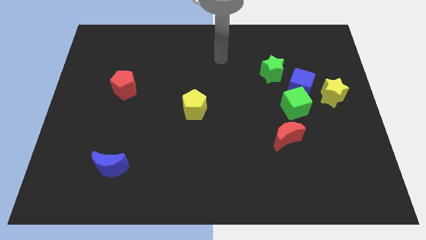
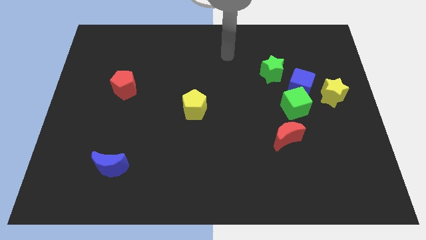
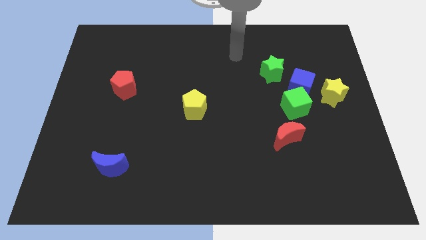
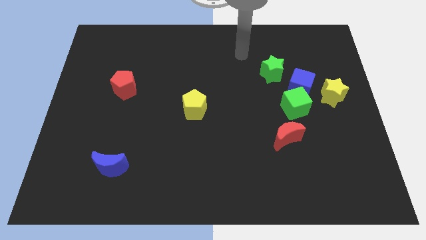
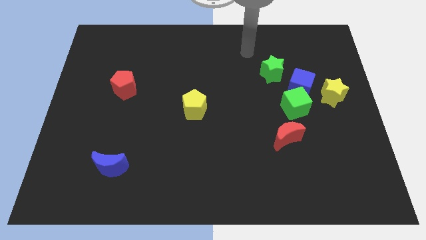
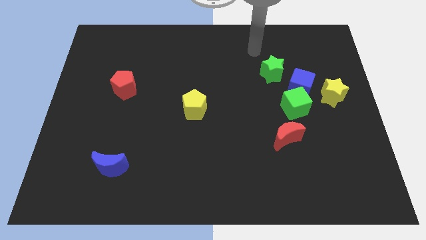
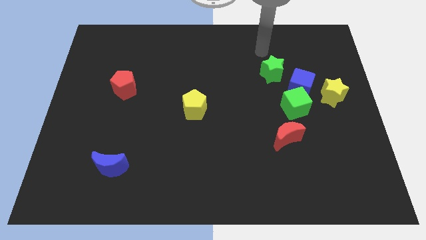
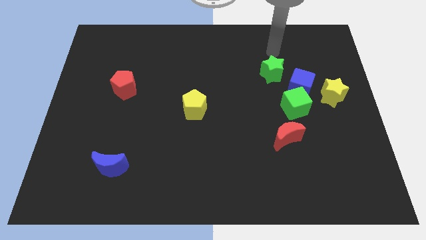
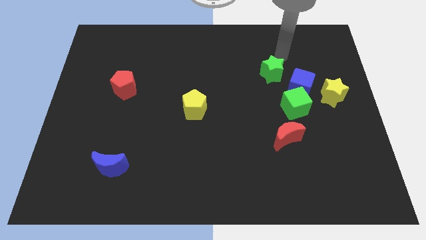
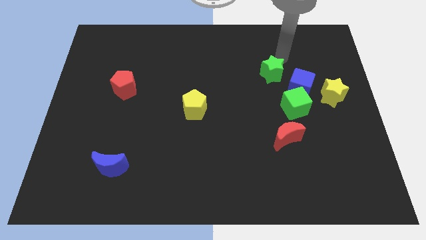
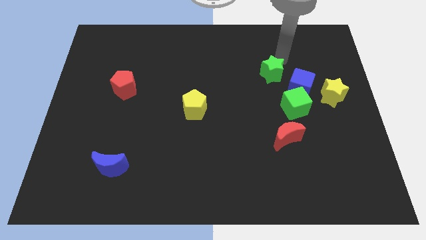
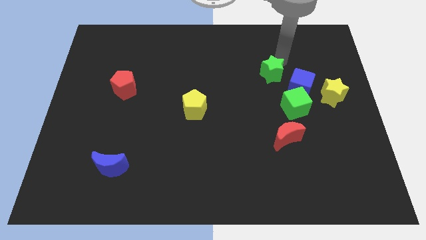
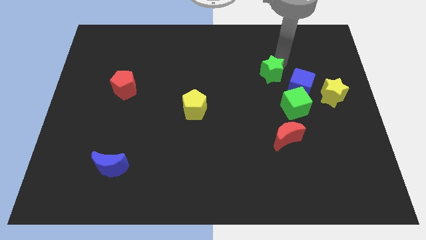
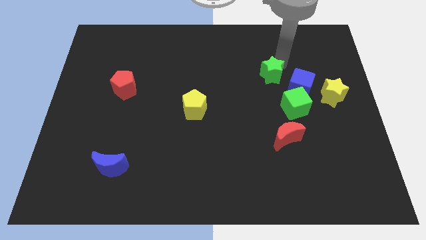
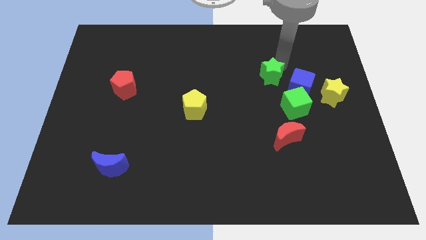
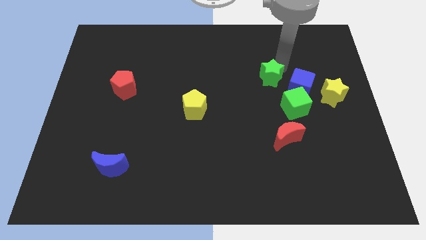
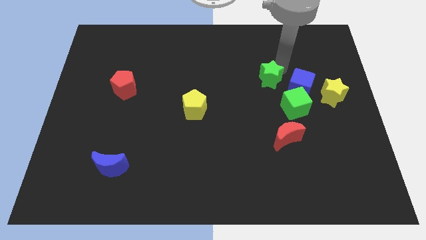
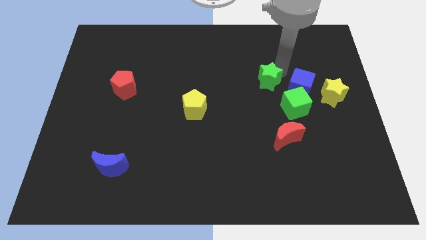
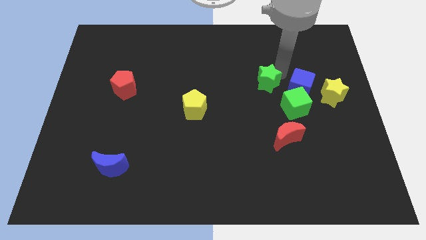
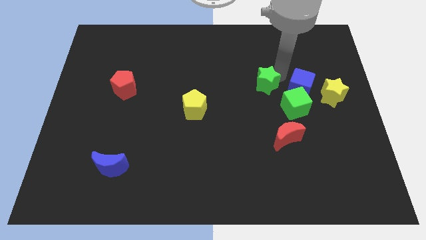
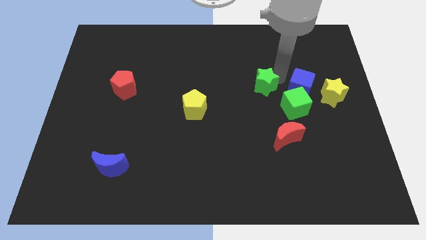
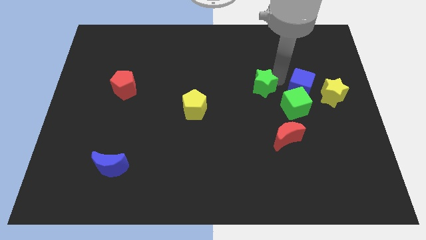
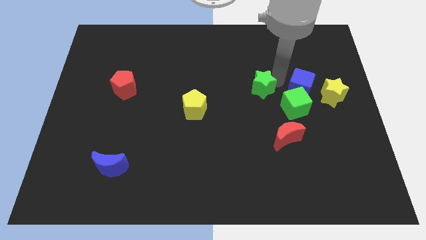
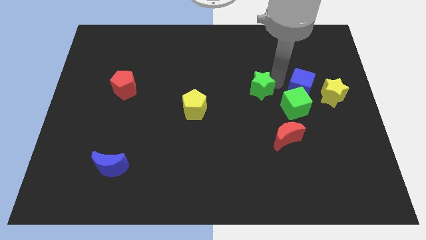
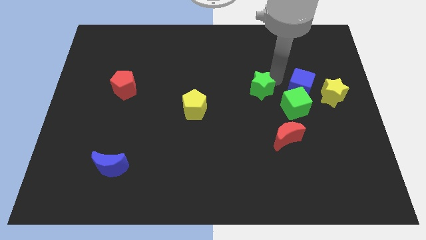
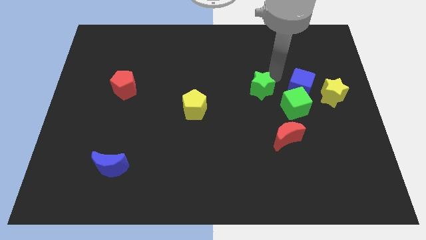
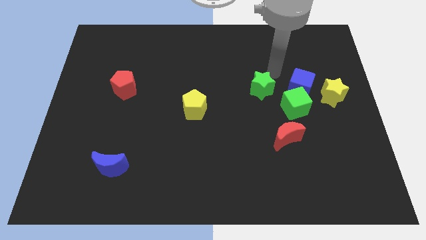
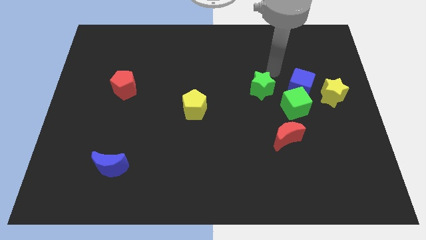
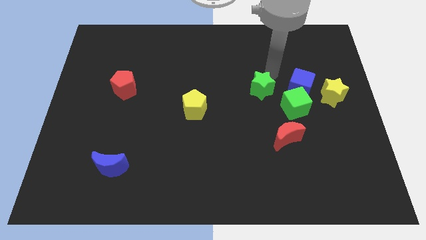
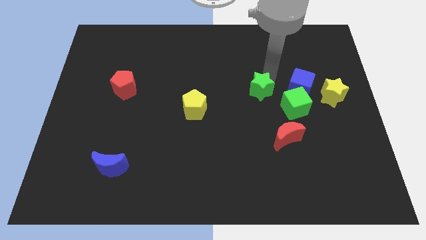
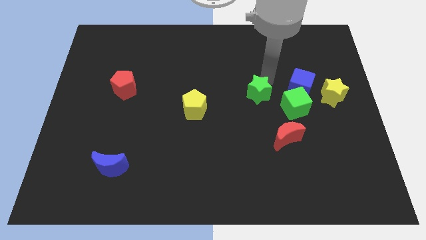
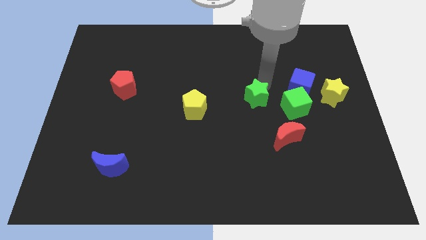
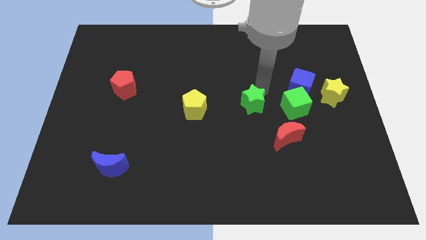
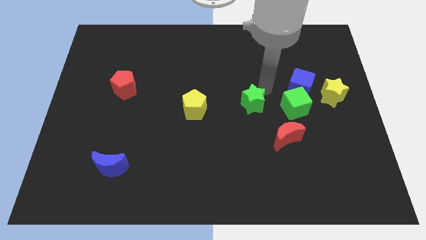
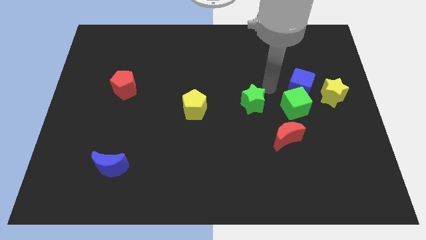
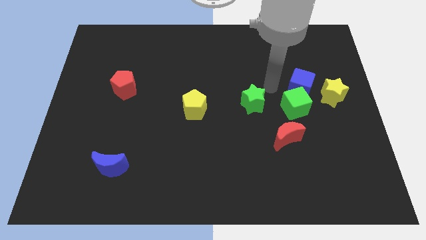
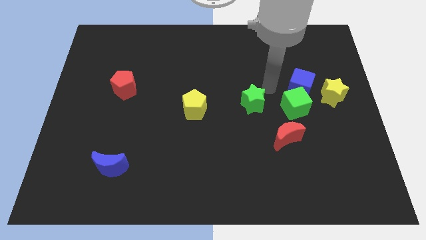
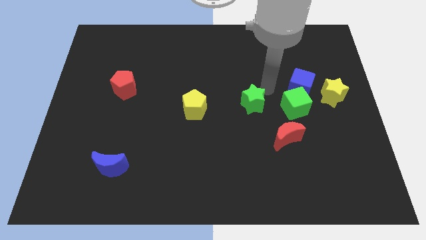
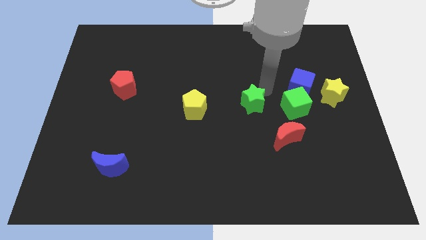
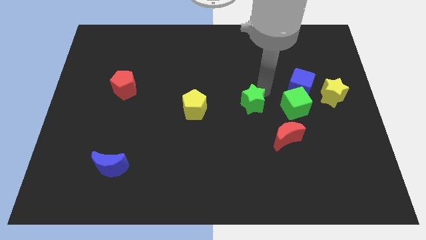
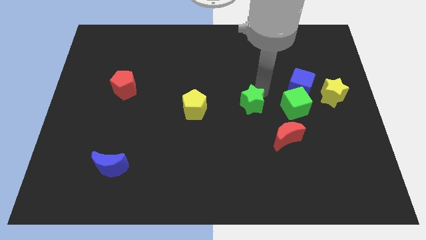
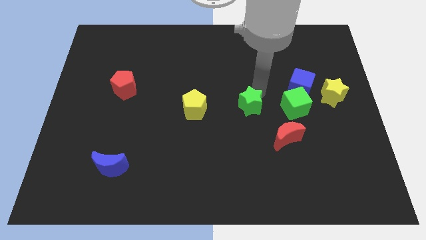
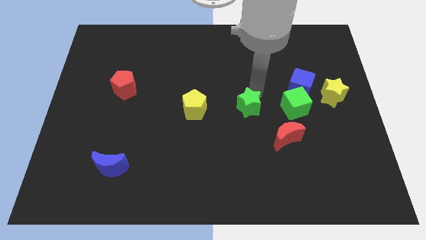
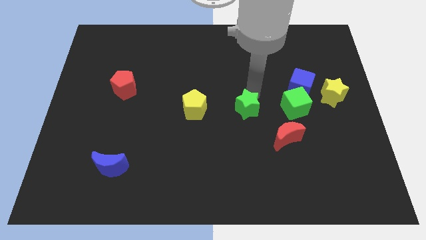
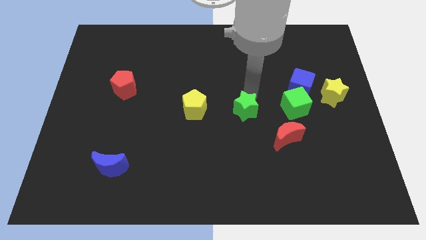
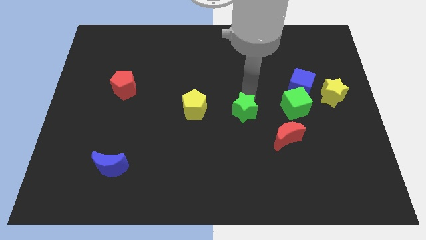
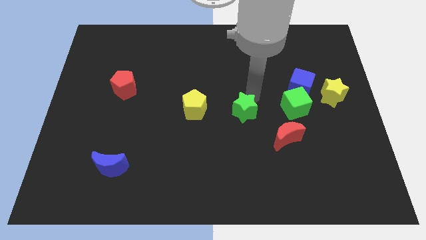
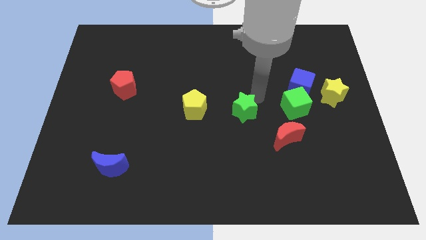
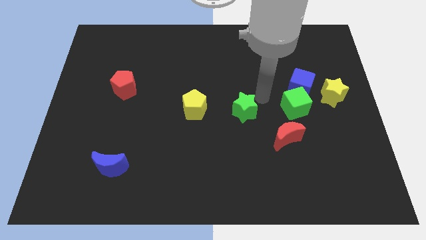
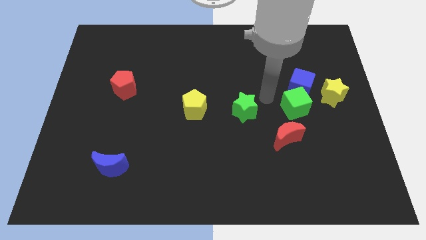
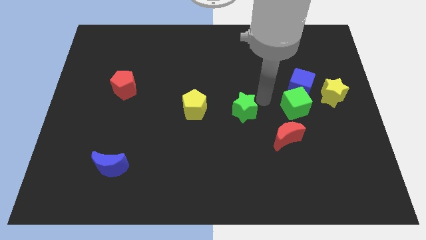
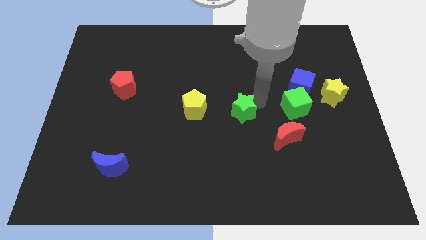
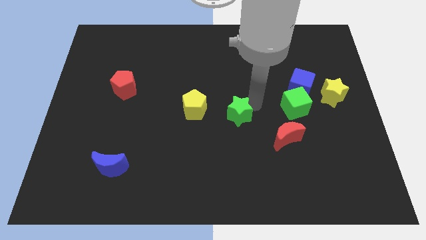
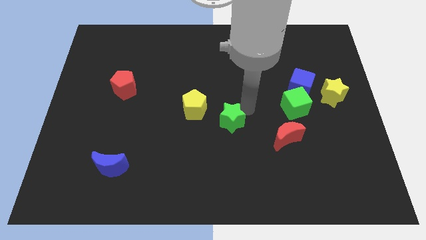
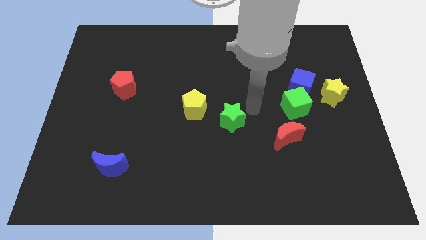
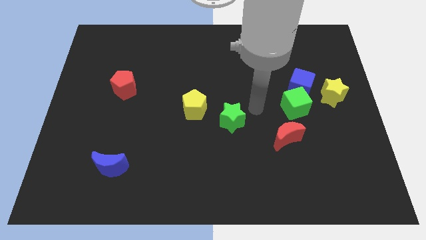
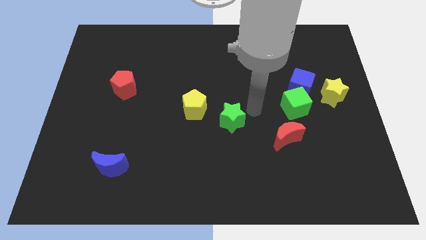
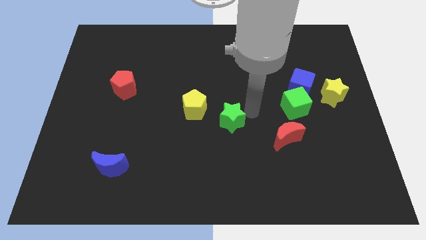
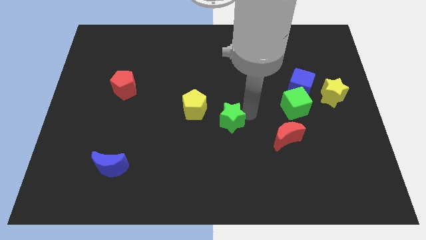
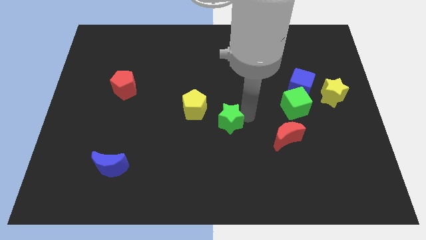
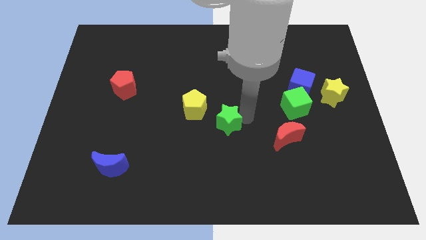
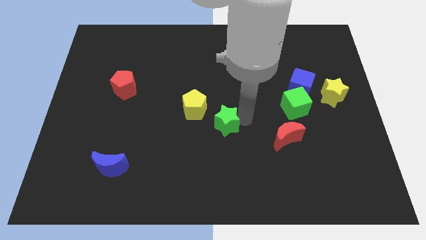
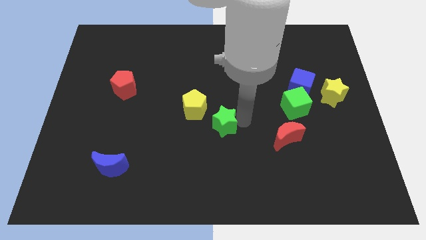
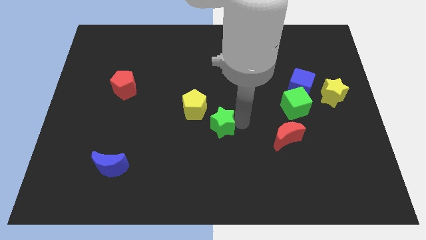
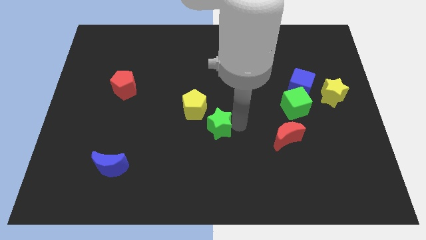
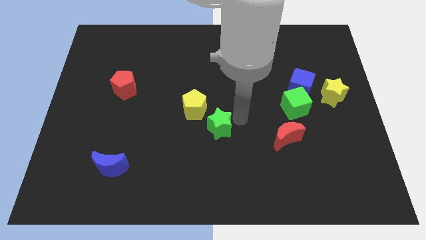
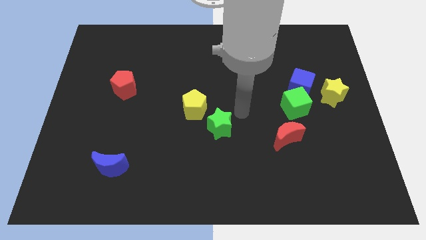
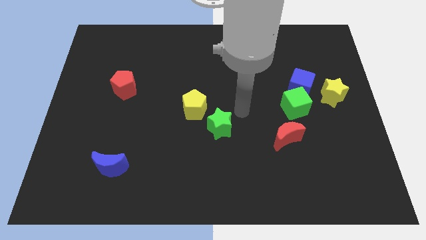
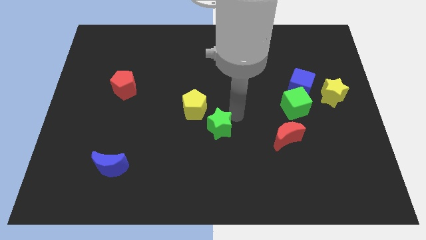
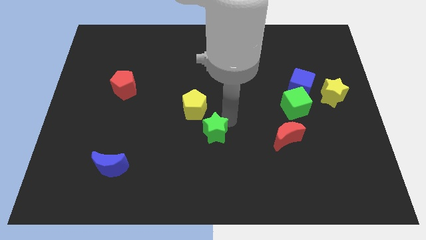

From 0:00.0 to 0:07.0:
push the green star below the yellow pentagon
